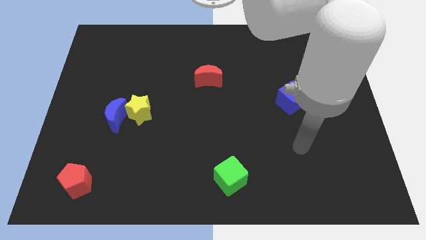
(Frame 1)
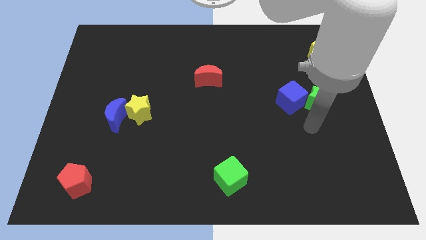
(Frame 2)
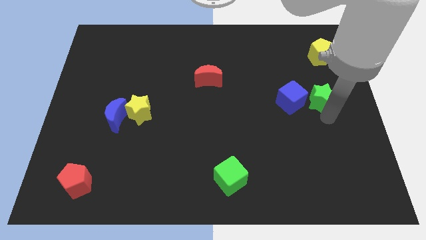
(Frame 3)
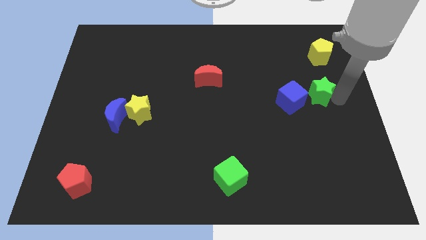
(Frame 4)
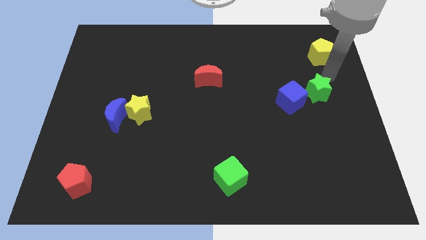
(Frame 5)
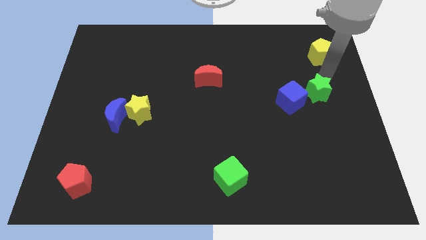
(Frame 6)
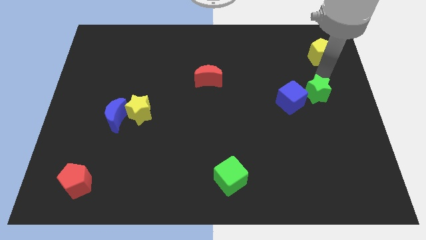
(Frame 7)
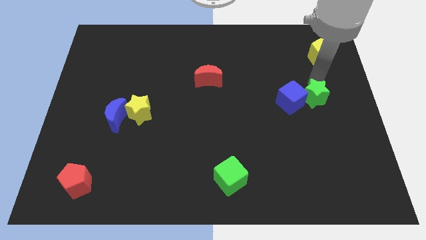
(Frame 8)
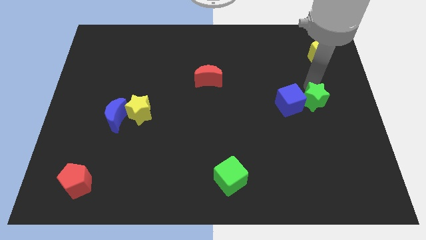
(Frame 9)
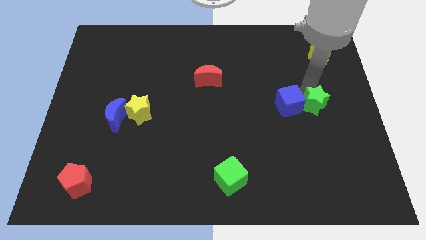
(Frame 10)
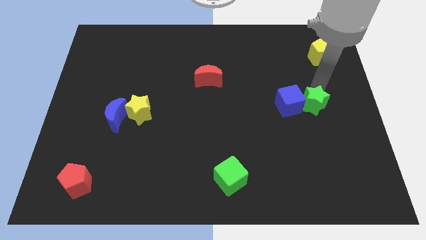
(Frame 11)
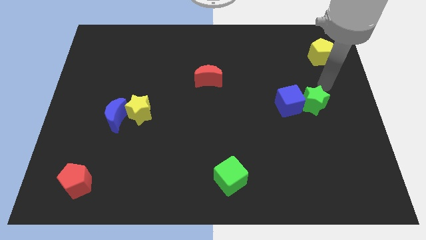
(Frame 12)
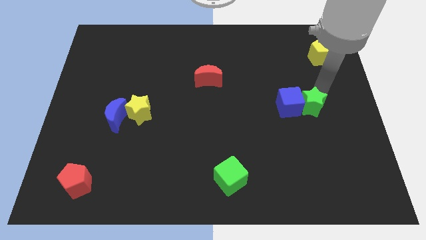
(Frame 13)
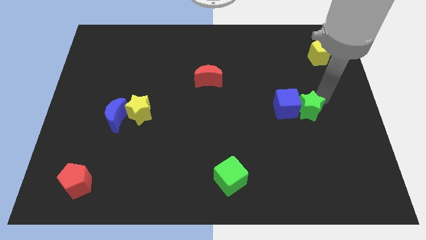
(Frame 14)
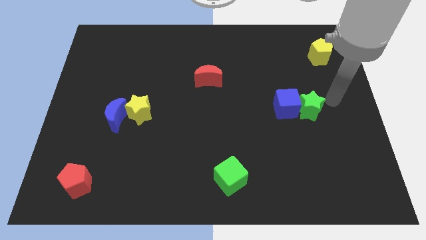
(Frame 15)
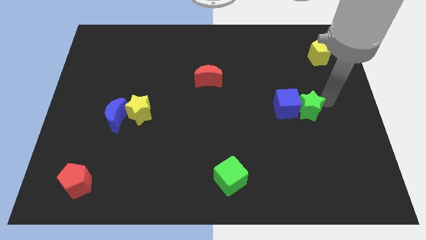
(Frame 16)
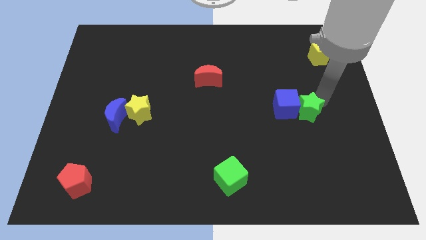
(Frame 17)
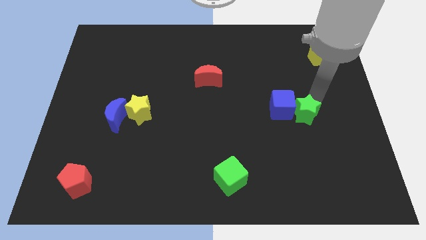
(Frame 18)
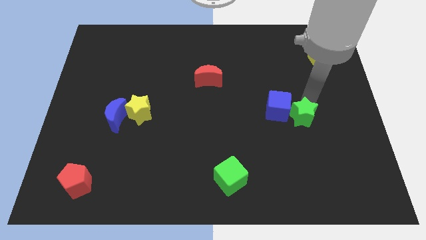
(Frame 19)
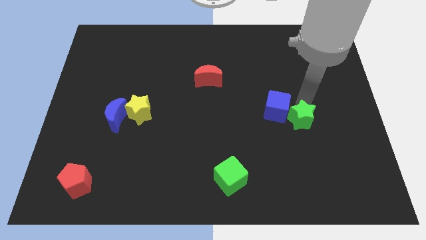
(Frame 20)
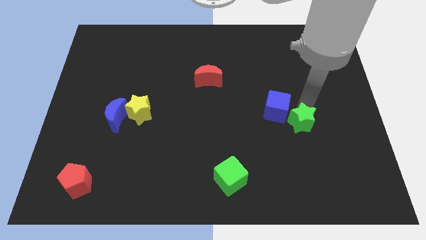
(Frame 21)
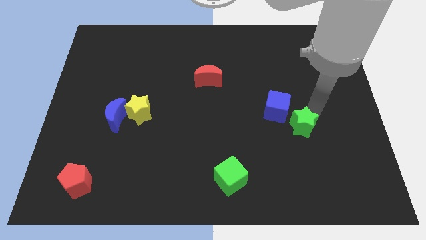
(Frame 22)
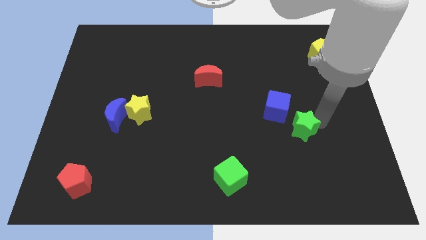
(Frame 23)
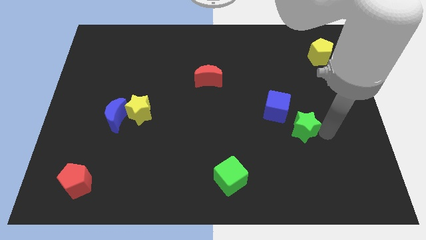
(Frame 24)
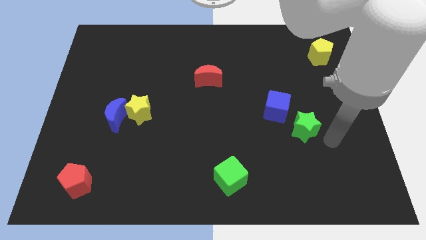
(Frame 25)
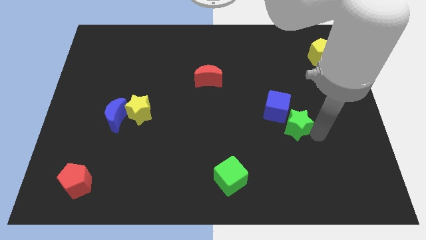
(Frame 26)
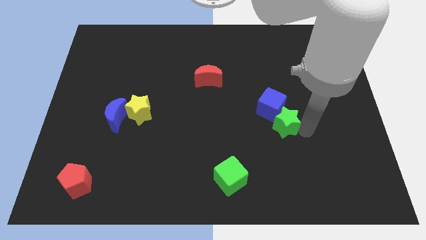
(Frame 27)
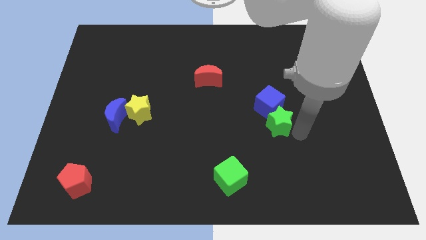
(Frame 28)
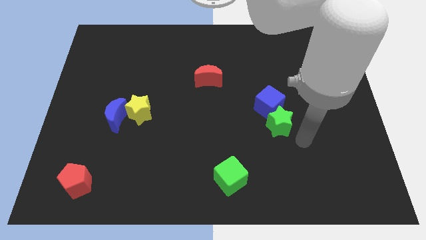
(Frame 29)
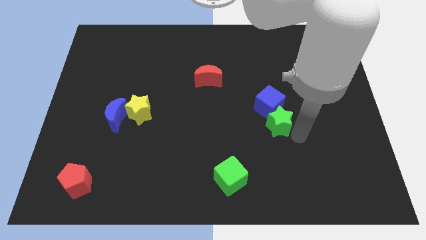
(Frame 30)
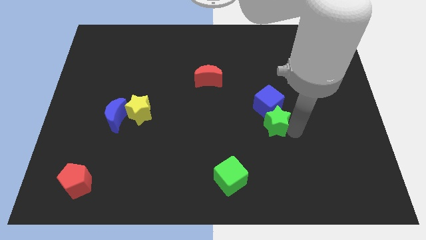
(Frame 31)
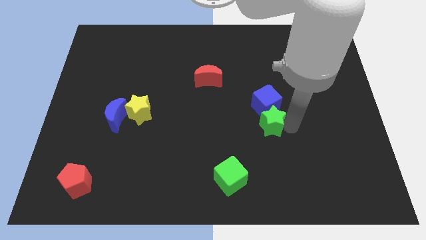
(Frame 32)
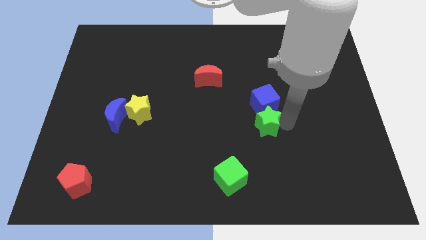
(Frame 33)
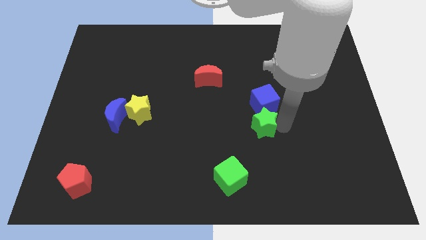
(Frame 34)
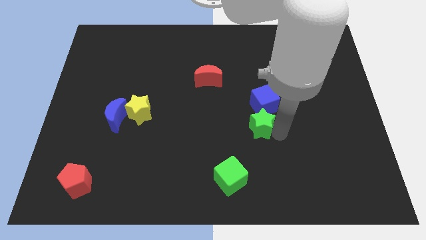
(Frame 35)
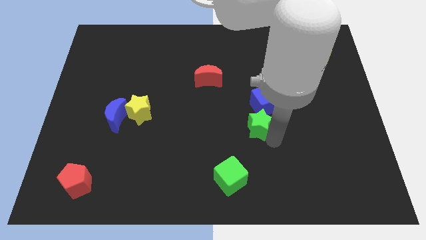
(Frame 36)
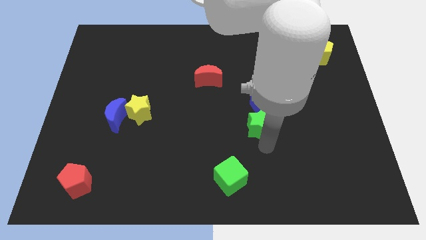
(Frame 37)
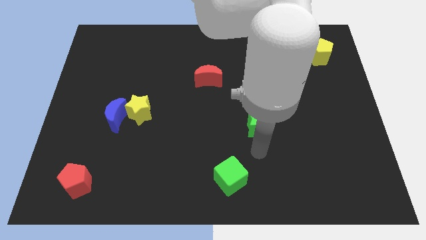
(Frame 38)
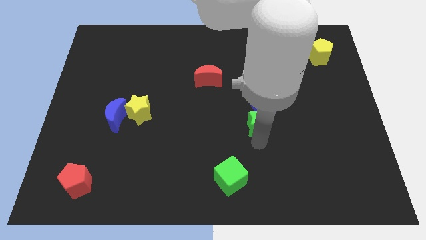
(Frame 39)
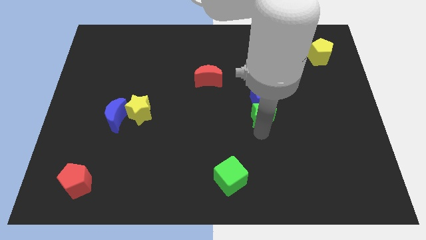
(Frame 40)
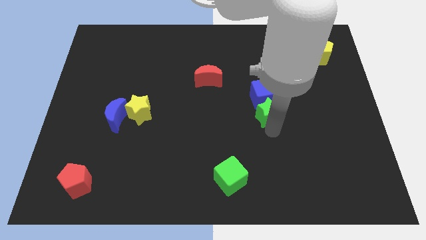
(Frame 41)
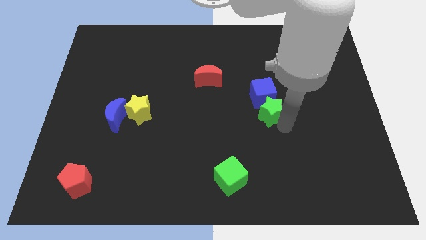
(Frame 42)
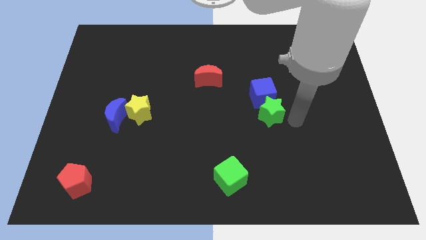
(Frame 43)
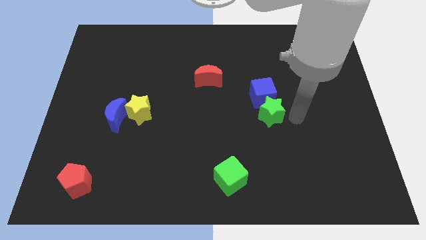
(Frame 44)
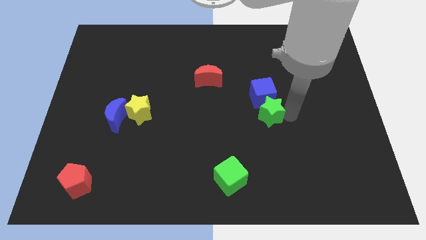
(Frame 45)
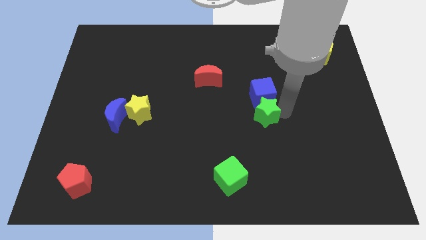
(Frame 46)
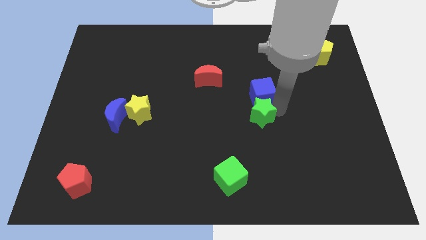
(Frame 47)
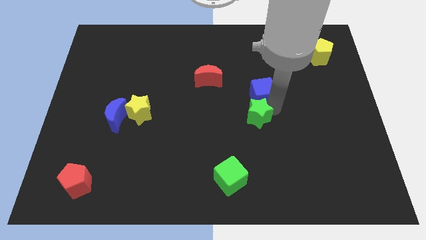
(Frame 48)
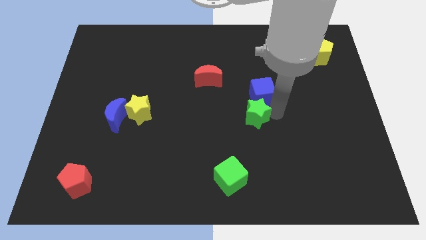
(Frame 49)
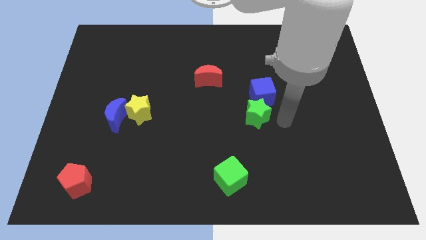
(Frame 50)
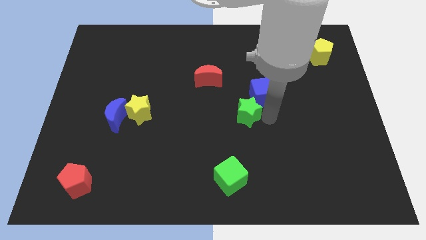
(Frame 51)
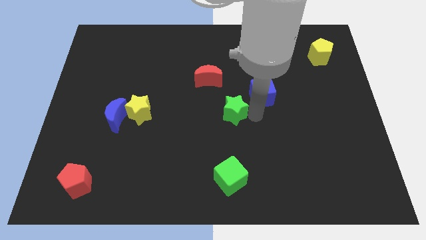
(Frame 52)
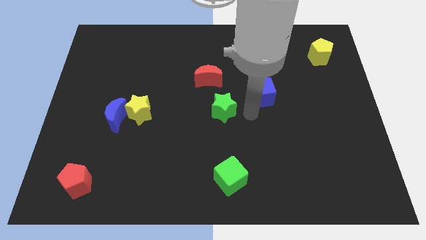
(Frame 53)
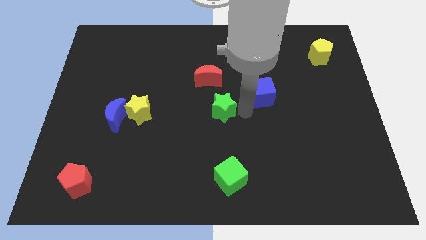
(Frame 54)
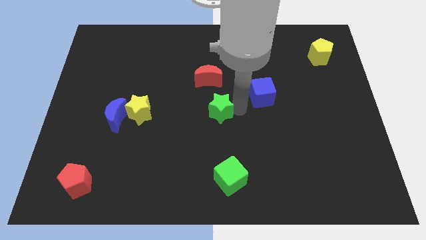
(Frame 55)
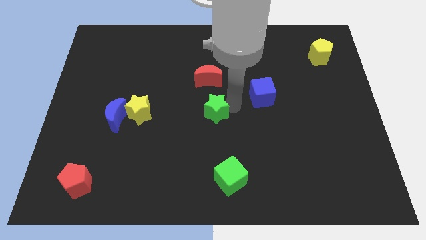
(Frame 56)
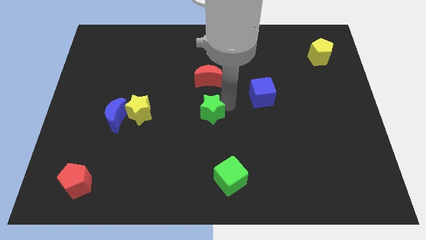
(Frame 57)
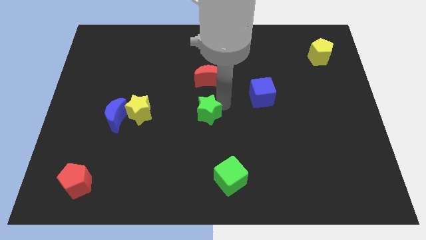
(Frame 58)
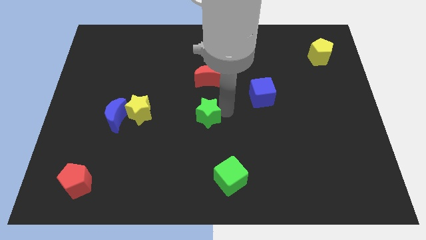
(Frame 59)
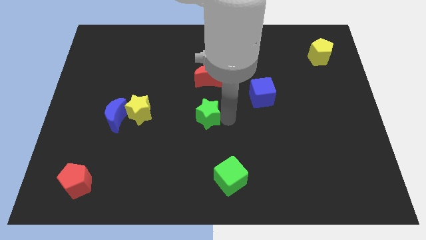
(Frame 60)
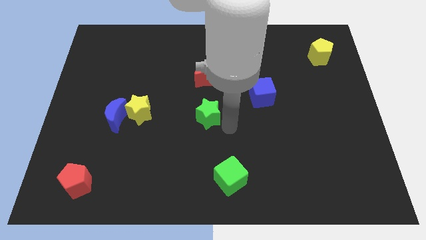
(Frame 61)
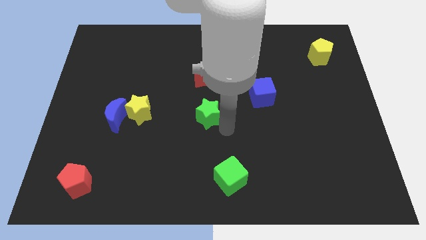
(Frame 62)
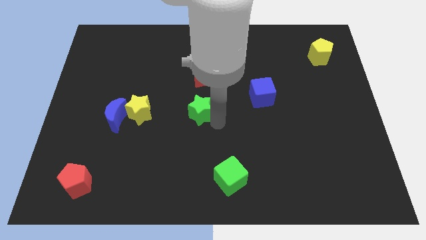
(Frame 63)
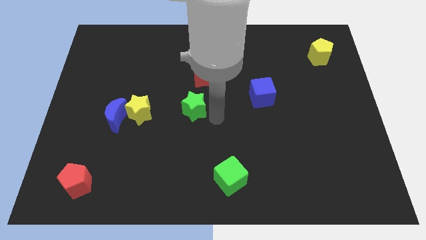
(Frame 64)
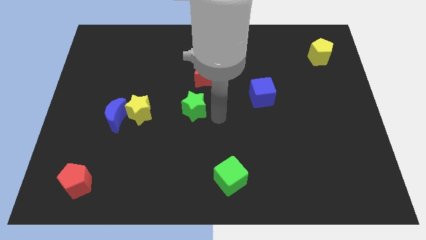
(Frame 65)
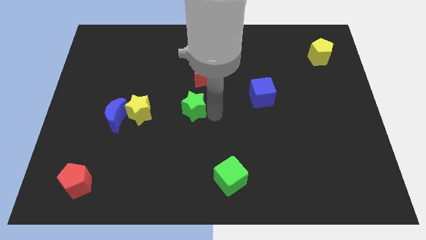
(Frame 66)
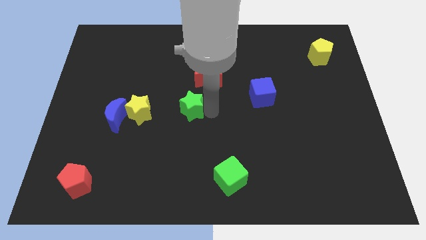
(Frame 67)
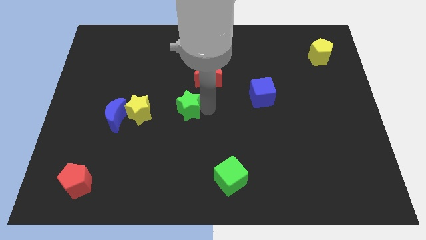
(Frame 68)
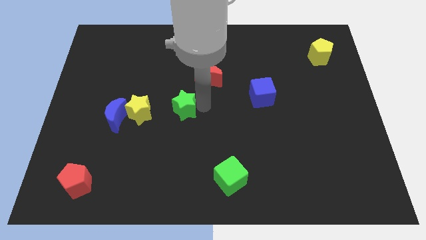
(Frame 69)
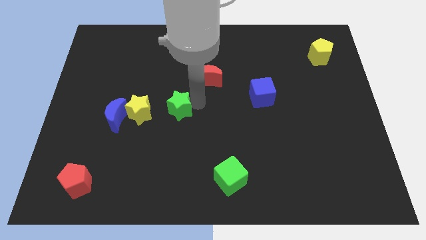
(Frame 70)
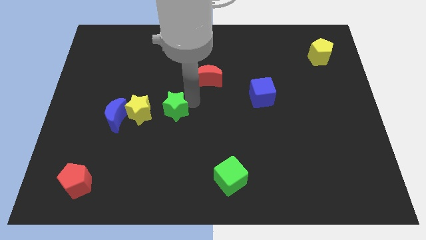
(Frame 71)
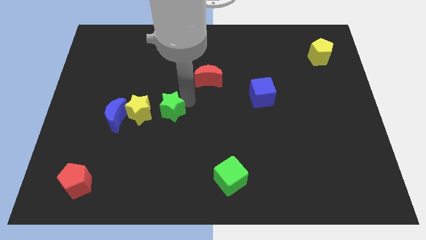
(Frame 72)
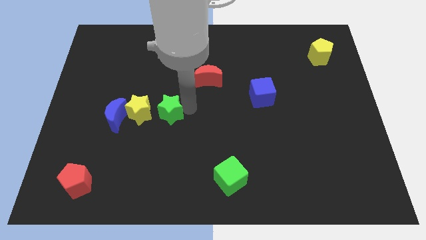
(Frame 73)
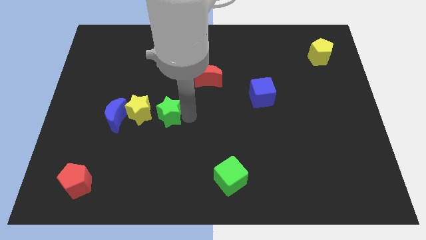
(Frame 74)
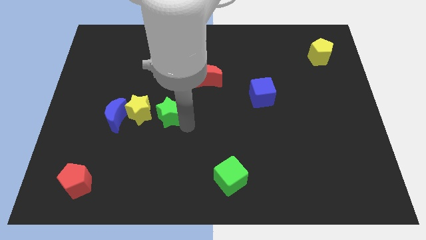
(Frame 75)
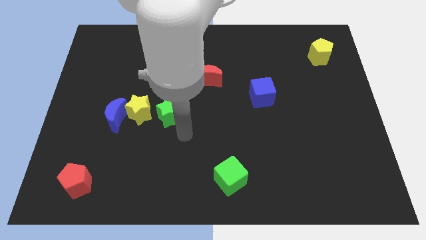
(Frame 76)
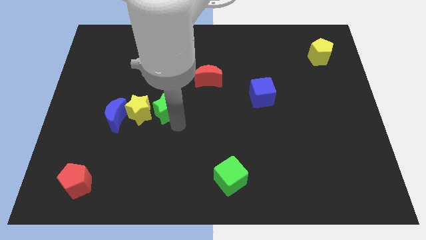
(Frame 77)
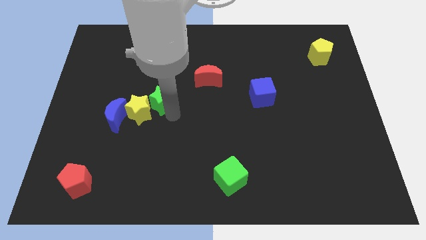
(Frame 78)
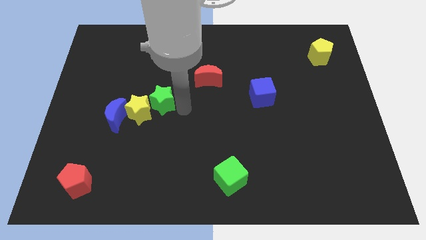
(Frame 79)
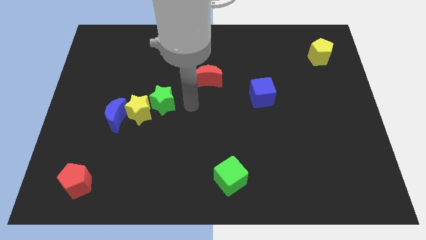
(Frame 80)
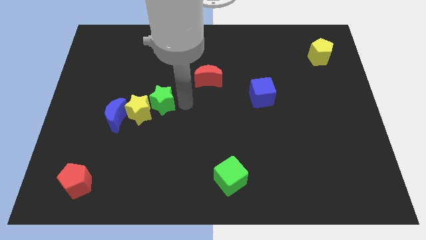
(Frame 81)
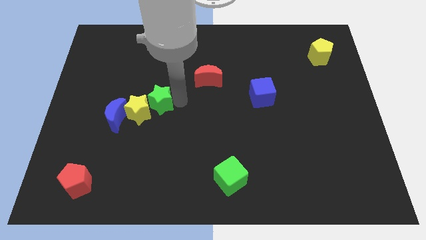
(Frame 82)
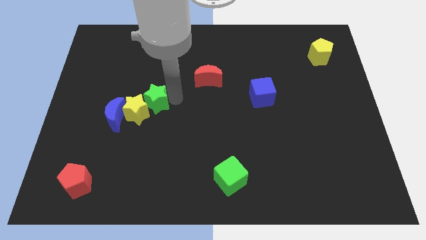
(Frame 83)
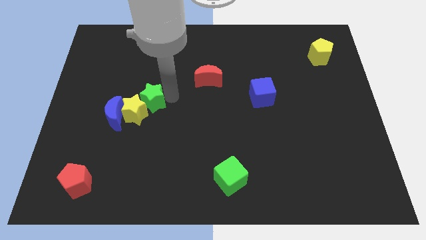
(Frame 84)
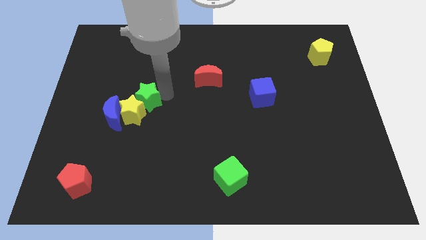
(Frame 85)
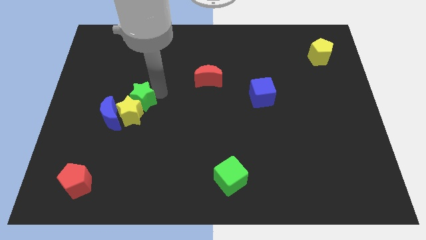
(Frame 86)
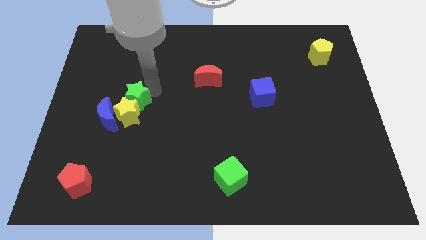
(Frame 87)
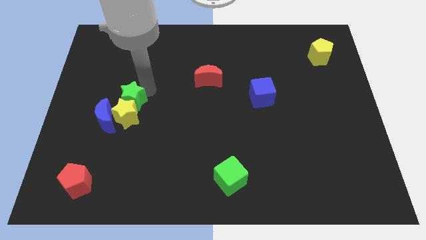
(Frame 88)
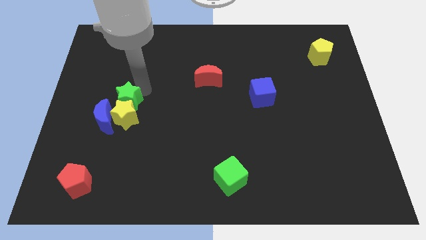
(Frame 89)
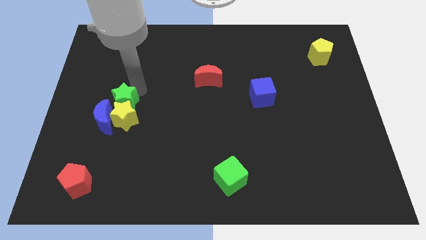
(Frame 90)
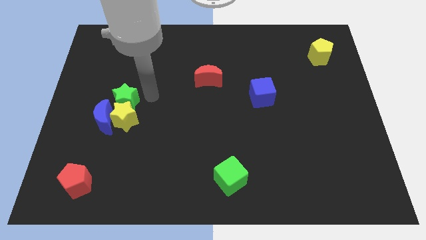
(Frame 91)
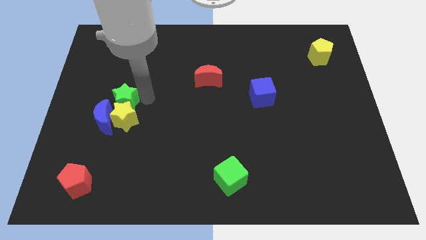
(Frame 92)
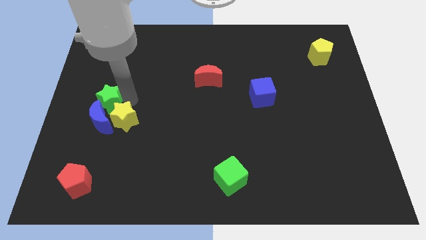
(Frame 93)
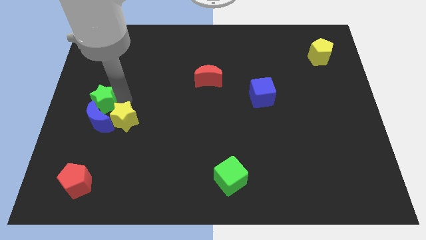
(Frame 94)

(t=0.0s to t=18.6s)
push the green star to the left side of the board
